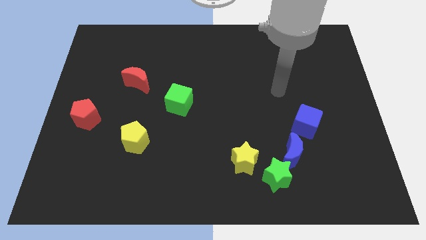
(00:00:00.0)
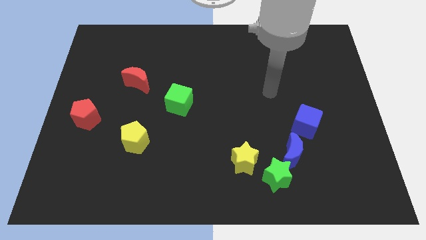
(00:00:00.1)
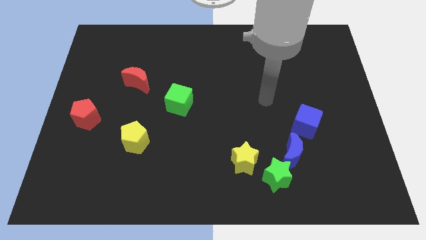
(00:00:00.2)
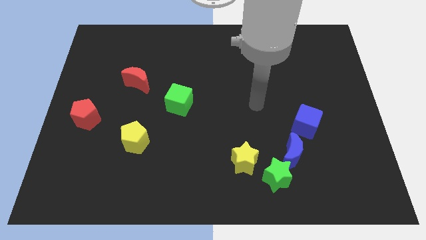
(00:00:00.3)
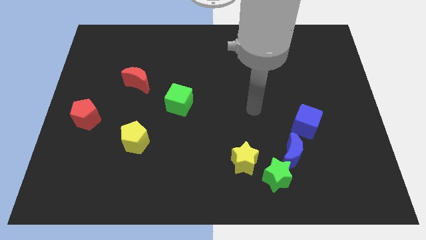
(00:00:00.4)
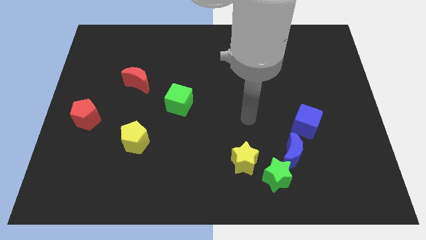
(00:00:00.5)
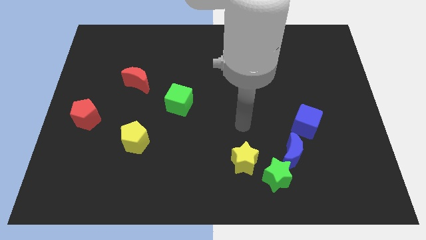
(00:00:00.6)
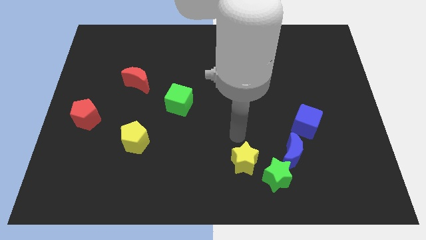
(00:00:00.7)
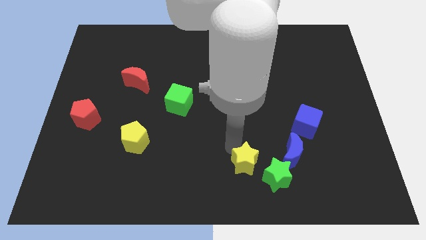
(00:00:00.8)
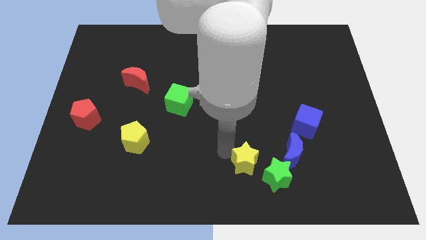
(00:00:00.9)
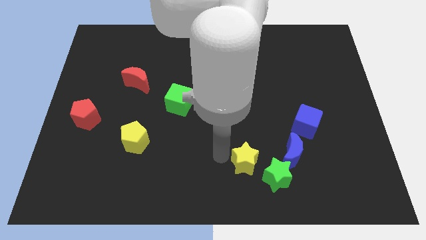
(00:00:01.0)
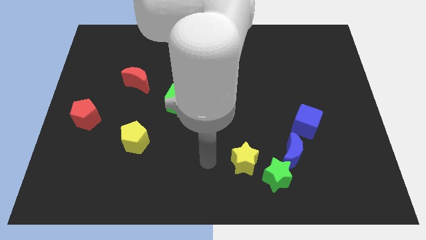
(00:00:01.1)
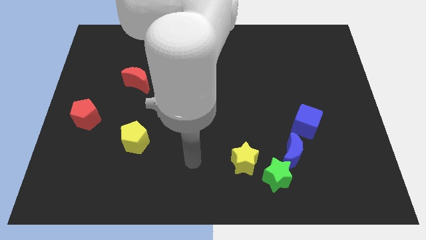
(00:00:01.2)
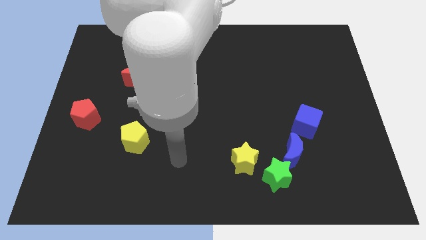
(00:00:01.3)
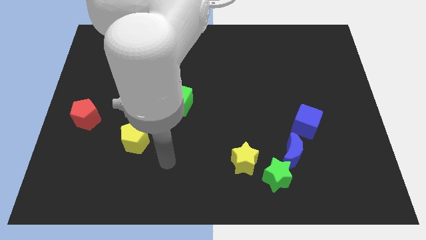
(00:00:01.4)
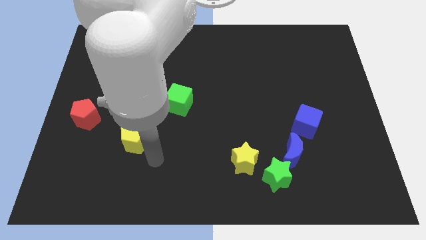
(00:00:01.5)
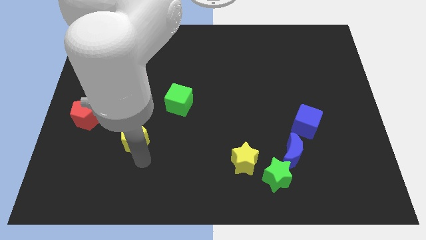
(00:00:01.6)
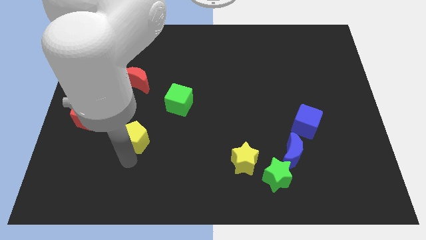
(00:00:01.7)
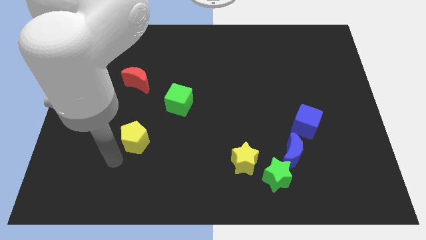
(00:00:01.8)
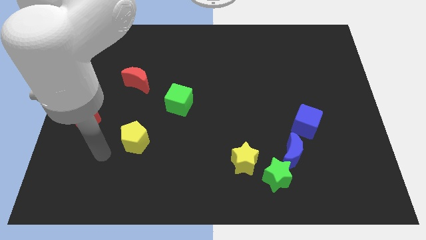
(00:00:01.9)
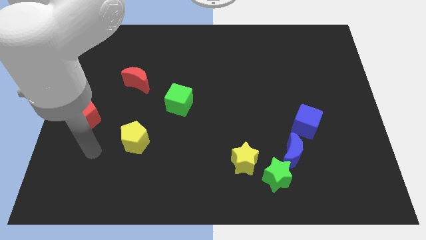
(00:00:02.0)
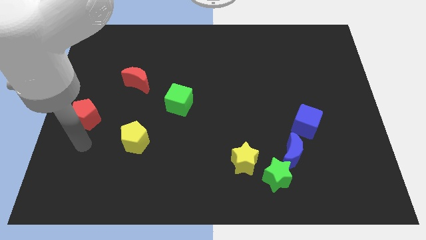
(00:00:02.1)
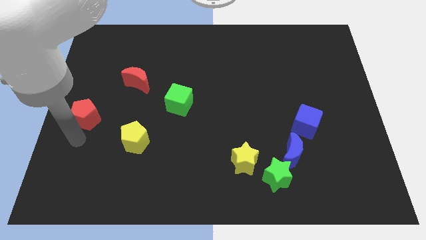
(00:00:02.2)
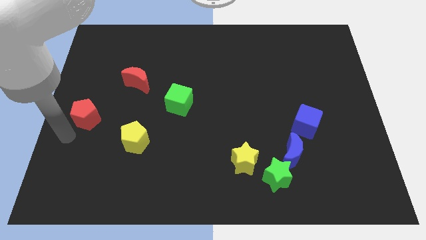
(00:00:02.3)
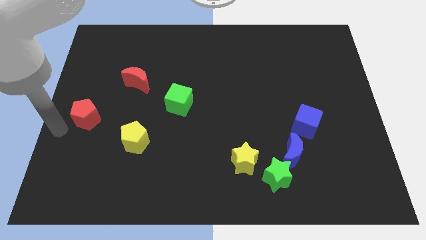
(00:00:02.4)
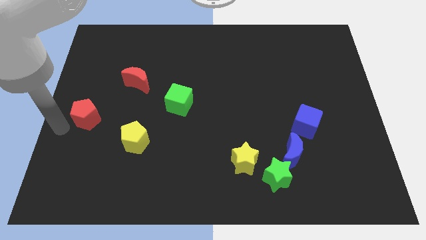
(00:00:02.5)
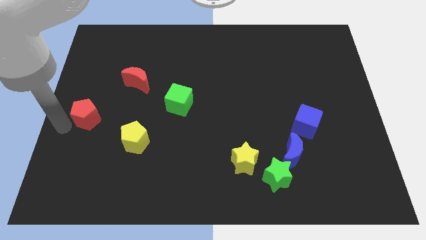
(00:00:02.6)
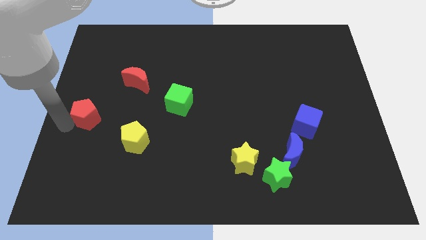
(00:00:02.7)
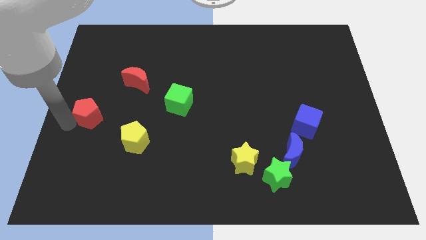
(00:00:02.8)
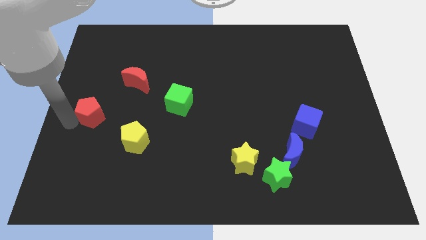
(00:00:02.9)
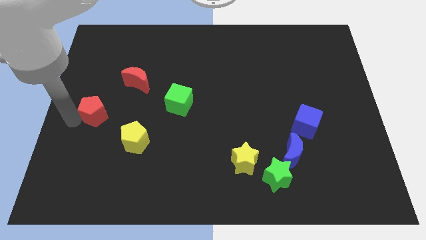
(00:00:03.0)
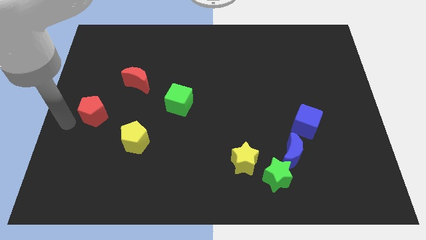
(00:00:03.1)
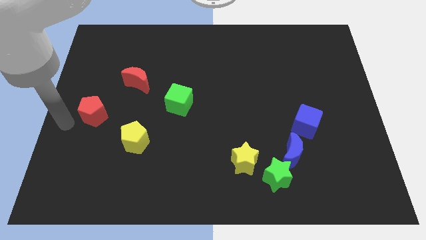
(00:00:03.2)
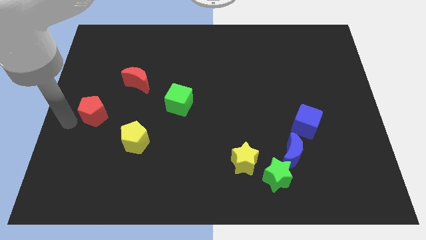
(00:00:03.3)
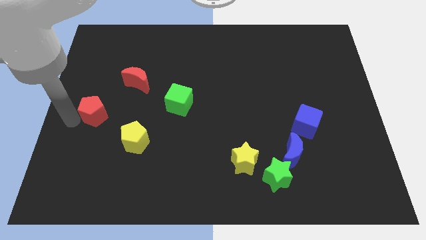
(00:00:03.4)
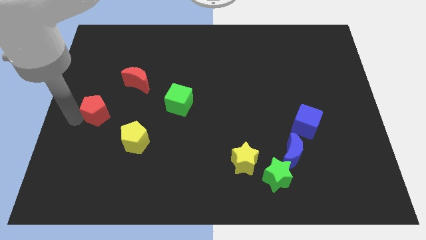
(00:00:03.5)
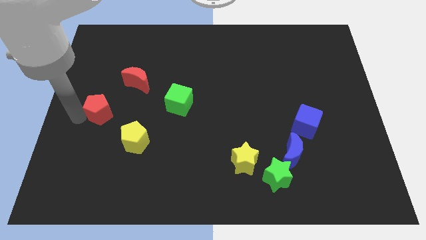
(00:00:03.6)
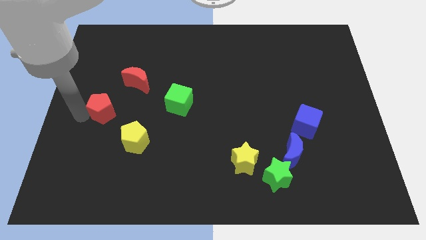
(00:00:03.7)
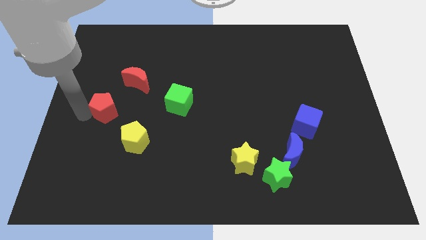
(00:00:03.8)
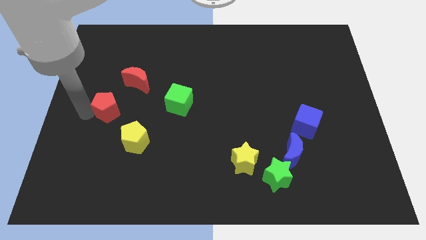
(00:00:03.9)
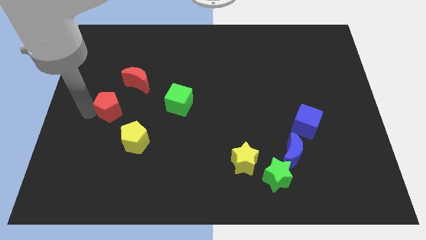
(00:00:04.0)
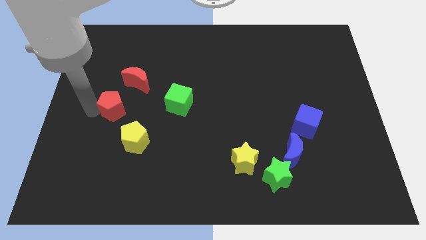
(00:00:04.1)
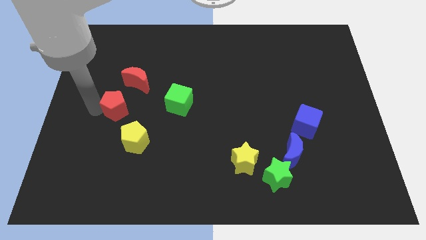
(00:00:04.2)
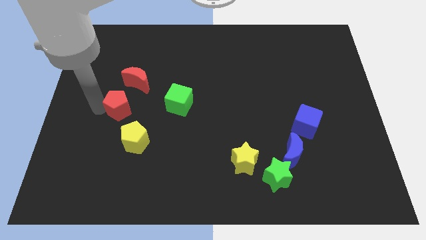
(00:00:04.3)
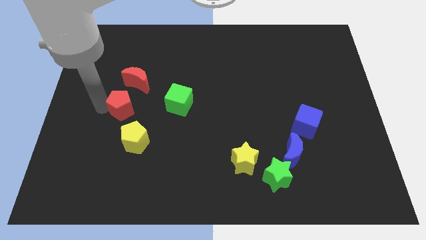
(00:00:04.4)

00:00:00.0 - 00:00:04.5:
slide the red pentagon up and right a bit

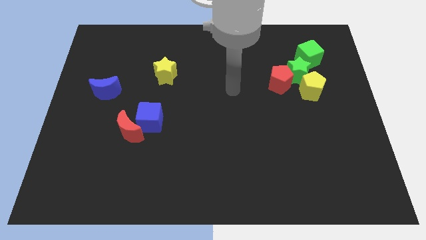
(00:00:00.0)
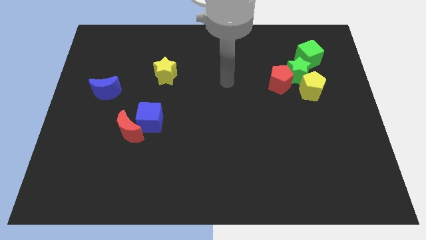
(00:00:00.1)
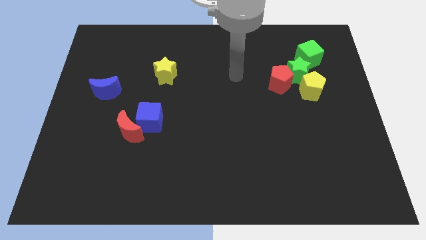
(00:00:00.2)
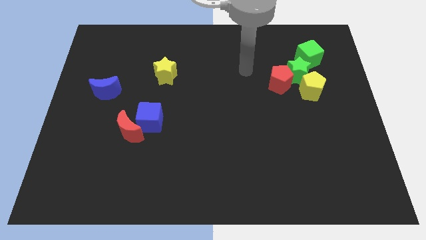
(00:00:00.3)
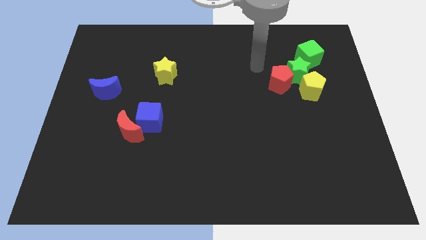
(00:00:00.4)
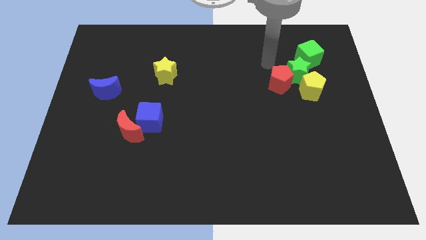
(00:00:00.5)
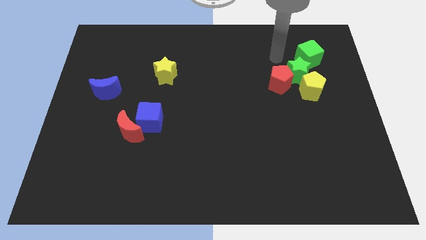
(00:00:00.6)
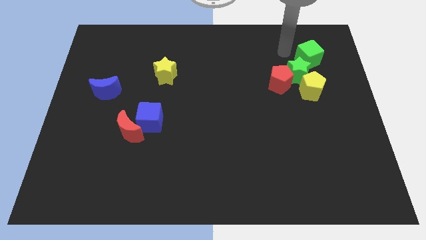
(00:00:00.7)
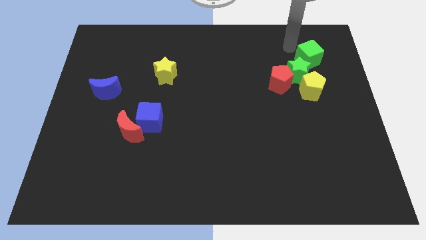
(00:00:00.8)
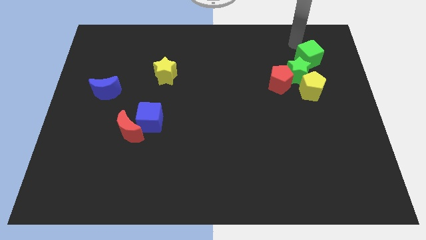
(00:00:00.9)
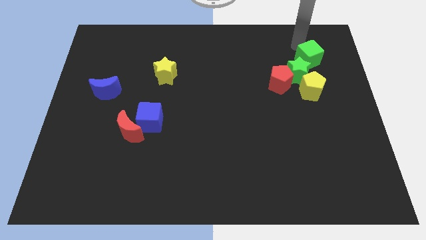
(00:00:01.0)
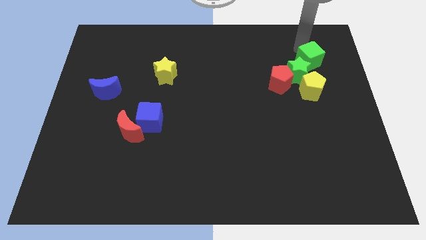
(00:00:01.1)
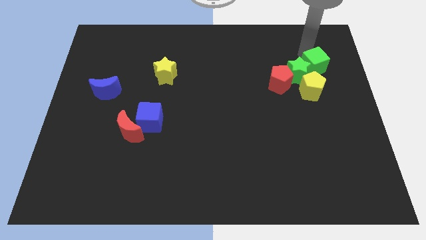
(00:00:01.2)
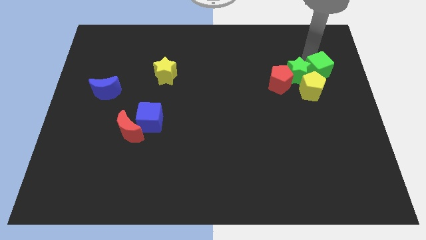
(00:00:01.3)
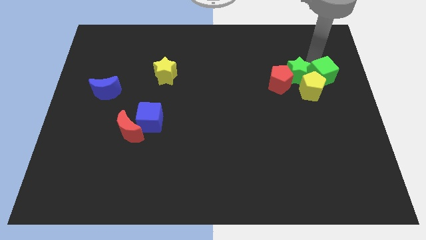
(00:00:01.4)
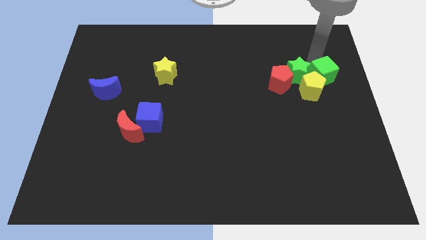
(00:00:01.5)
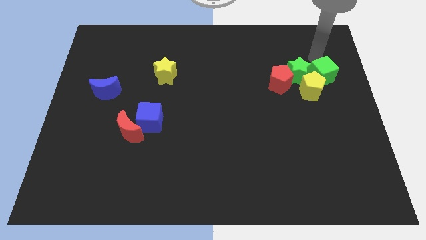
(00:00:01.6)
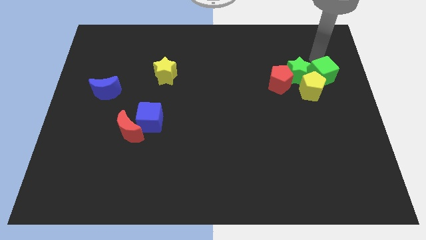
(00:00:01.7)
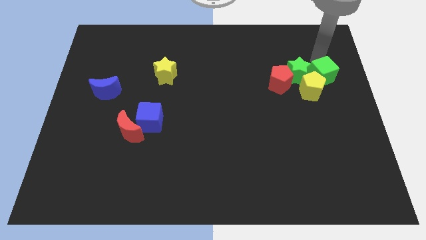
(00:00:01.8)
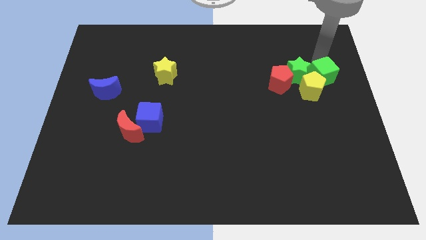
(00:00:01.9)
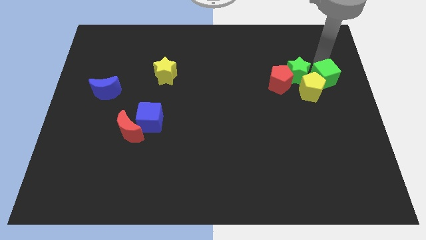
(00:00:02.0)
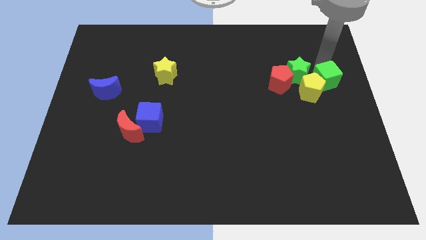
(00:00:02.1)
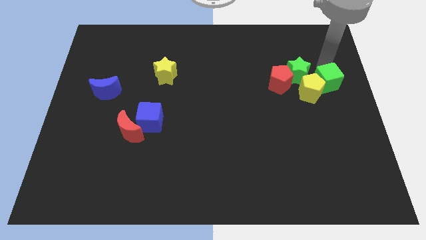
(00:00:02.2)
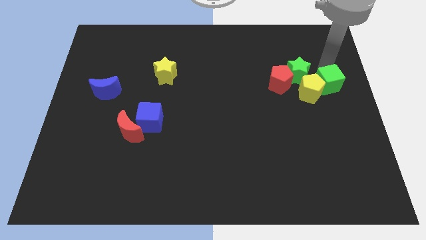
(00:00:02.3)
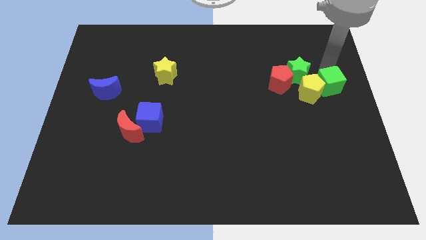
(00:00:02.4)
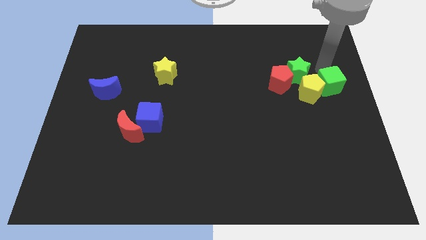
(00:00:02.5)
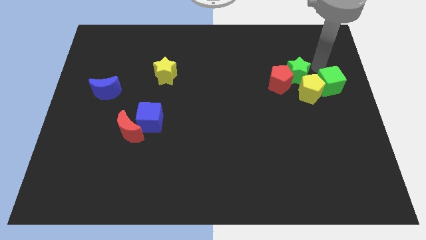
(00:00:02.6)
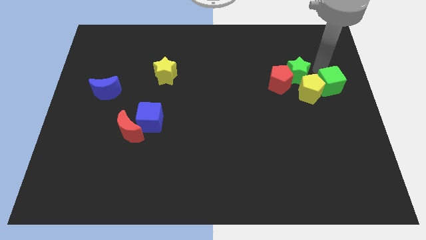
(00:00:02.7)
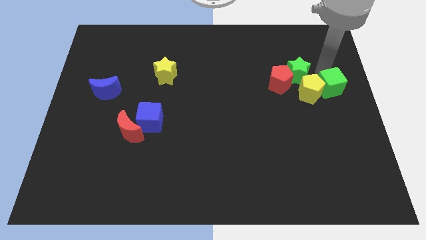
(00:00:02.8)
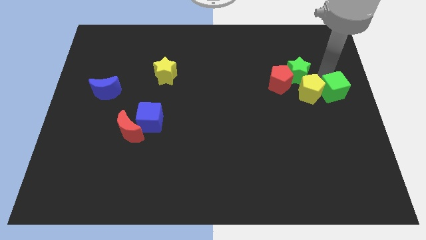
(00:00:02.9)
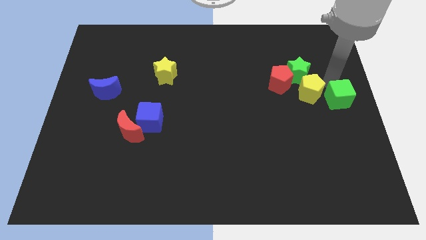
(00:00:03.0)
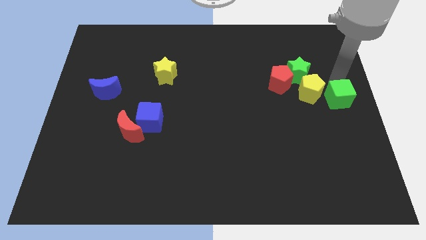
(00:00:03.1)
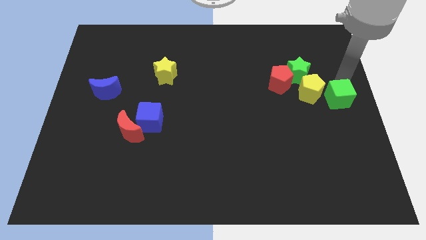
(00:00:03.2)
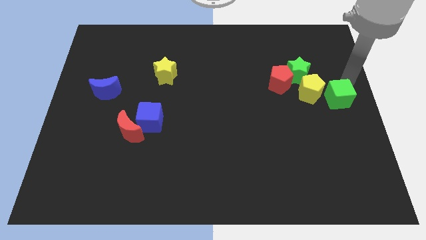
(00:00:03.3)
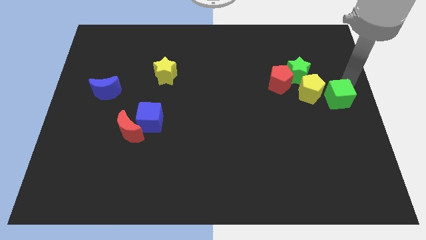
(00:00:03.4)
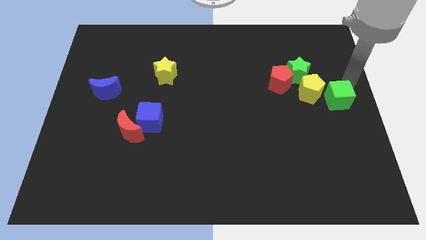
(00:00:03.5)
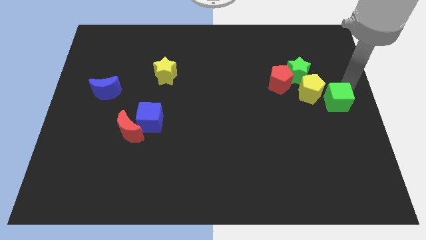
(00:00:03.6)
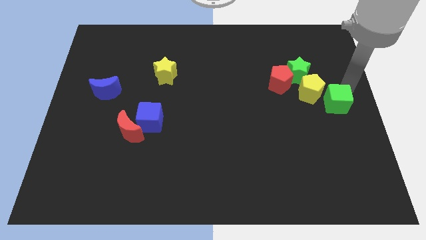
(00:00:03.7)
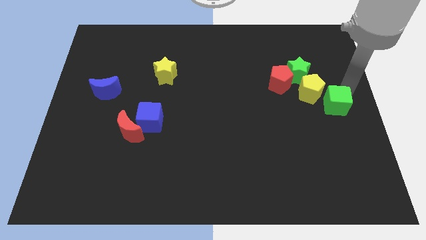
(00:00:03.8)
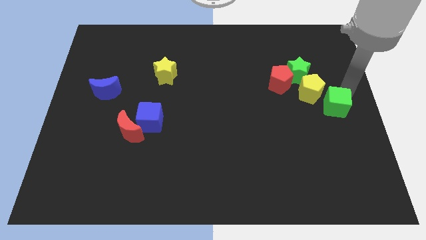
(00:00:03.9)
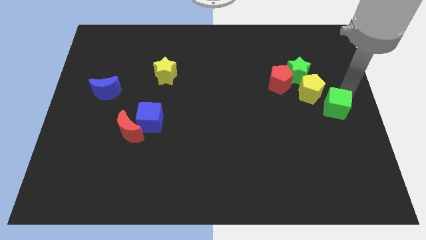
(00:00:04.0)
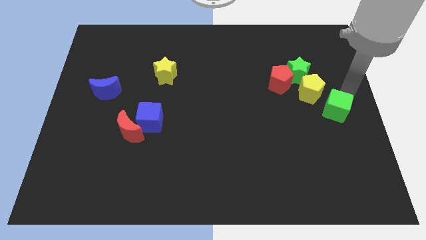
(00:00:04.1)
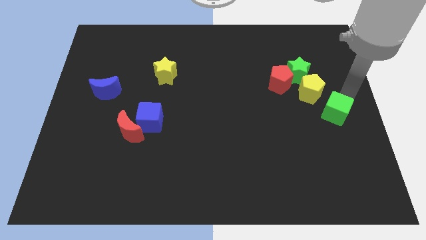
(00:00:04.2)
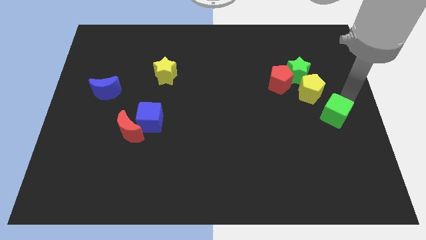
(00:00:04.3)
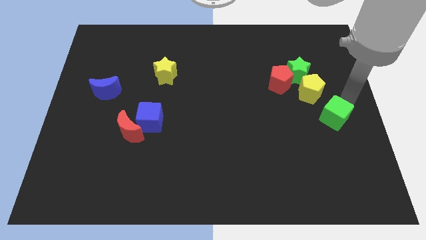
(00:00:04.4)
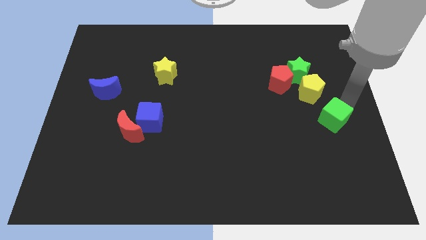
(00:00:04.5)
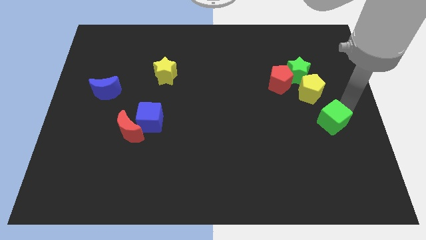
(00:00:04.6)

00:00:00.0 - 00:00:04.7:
move the green cube downwards
